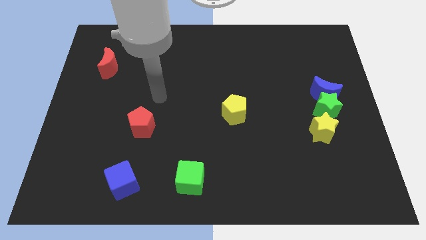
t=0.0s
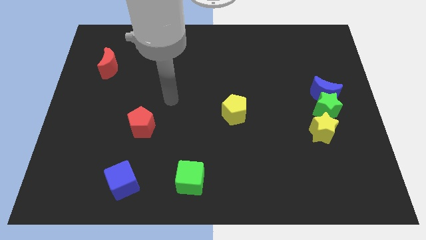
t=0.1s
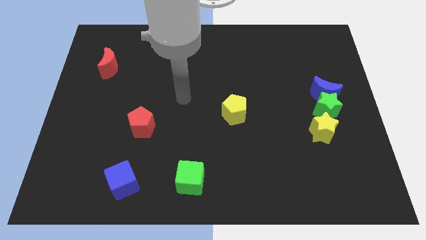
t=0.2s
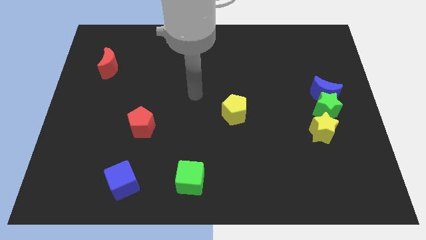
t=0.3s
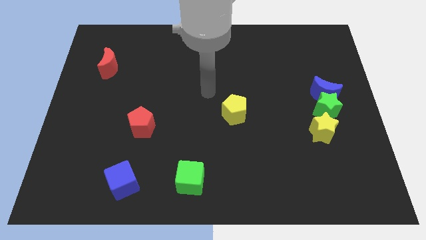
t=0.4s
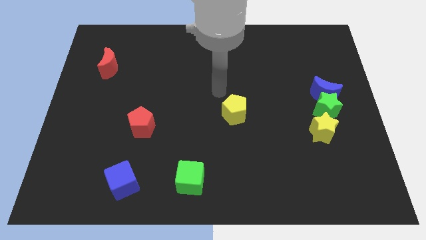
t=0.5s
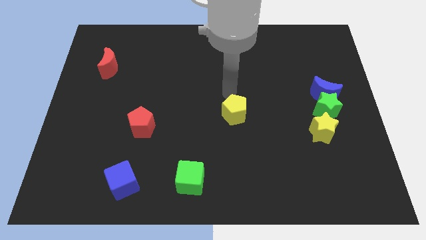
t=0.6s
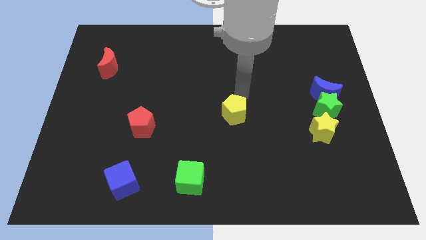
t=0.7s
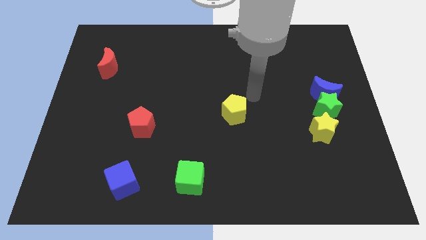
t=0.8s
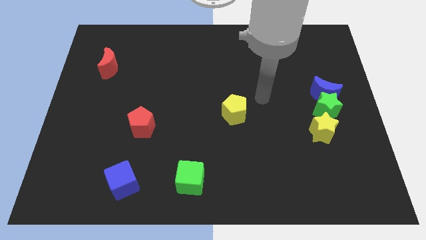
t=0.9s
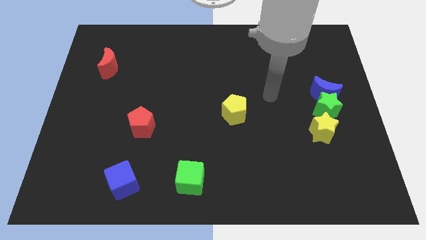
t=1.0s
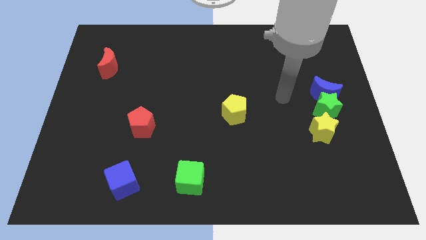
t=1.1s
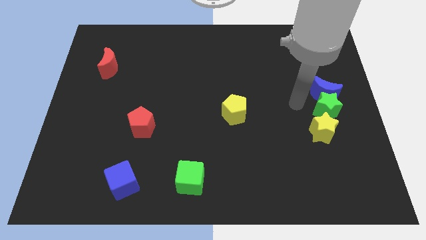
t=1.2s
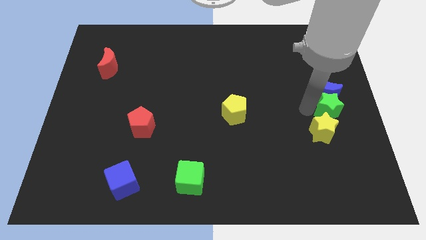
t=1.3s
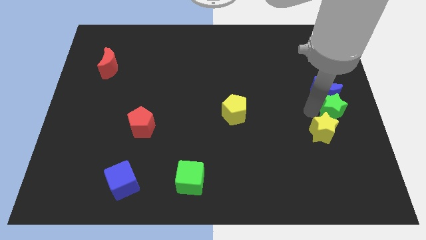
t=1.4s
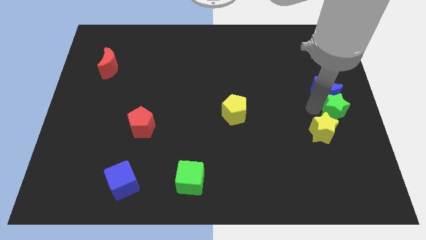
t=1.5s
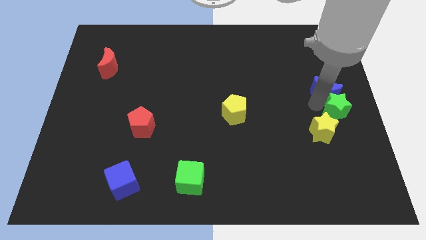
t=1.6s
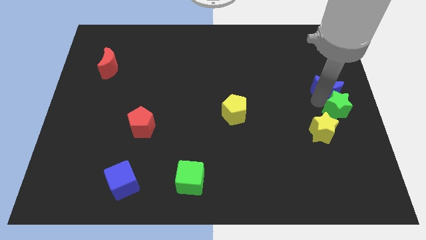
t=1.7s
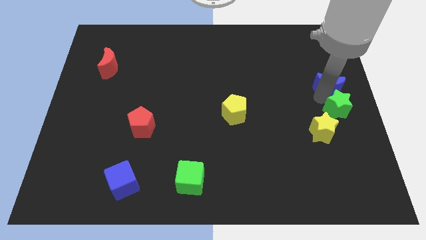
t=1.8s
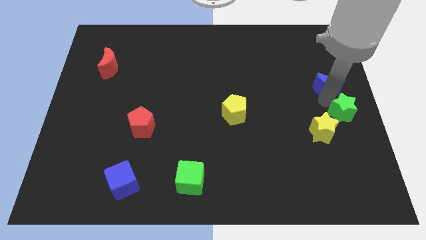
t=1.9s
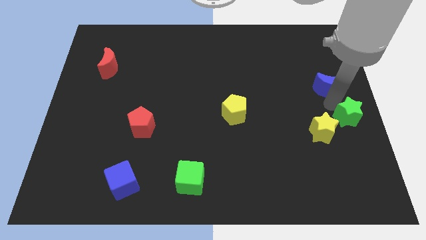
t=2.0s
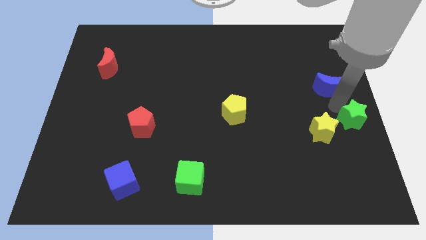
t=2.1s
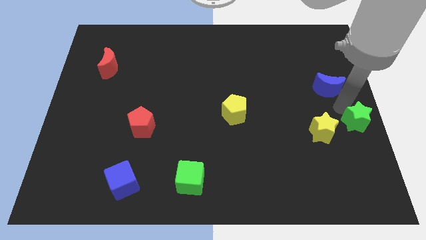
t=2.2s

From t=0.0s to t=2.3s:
separate the blue moon from the green star

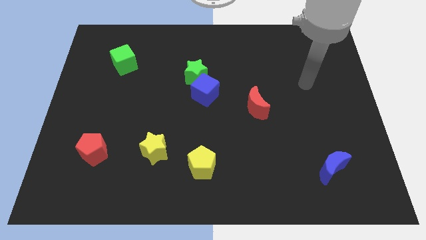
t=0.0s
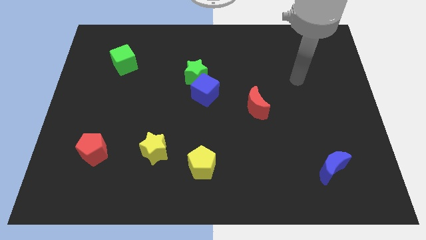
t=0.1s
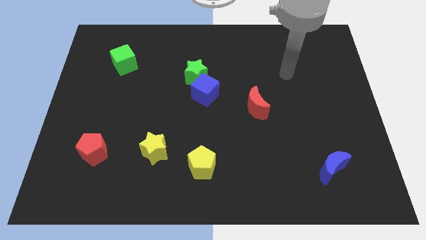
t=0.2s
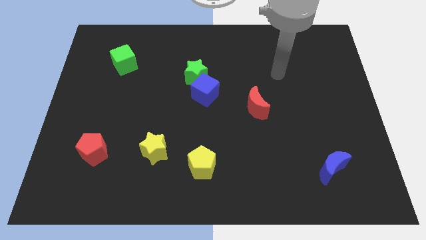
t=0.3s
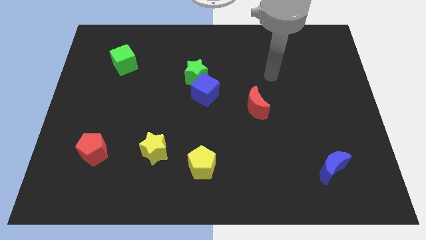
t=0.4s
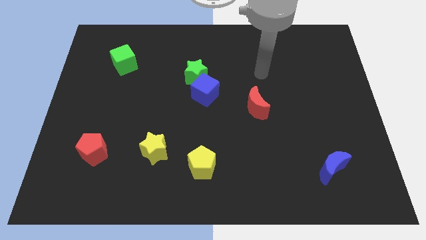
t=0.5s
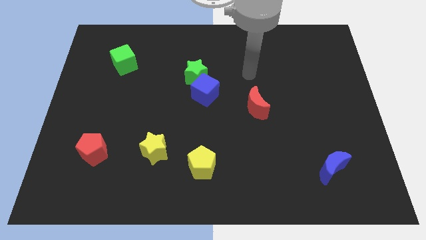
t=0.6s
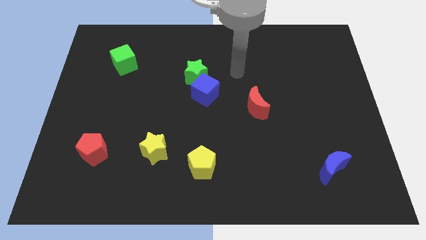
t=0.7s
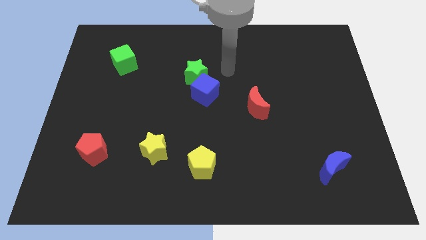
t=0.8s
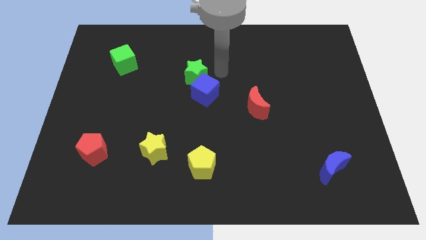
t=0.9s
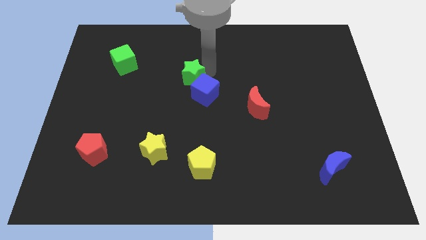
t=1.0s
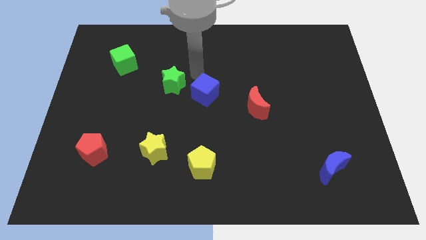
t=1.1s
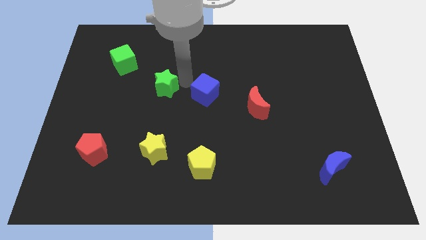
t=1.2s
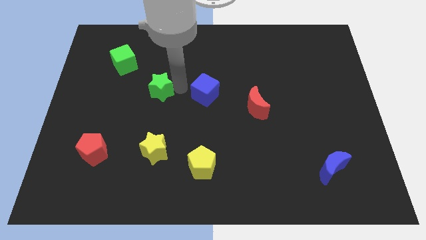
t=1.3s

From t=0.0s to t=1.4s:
pull the blue cube apart from the green star

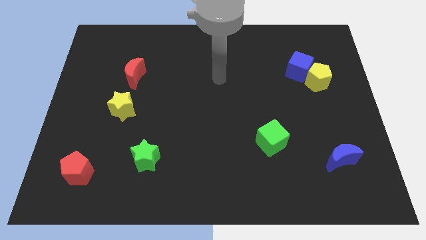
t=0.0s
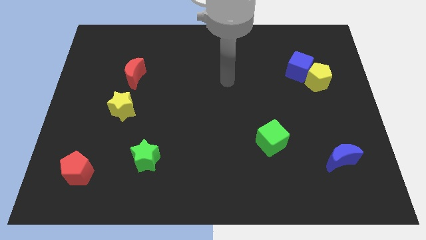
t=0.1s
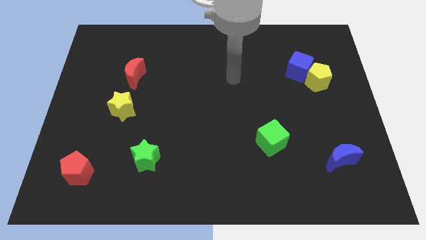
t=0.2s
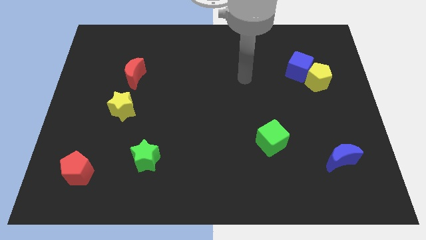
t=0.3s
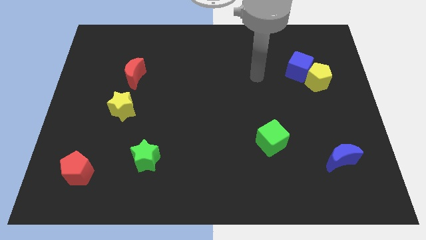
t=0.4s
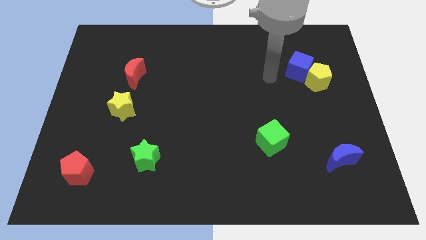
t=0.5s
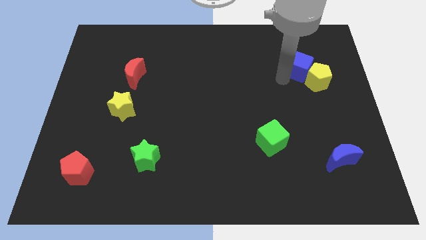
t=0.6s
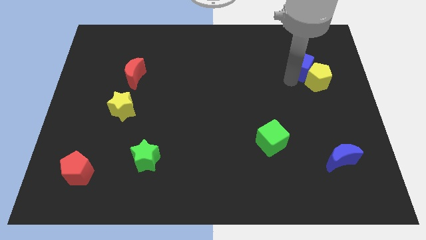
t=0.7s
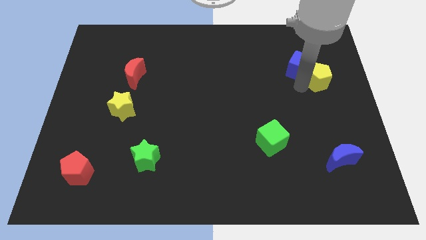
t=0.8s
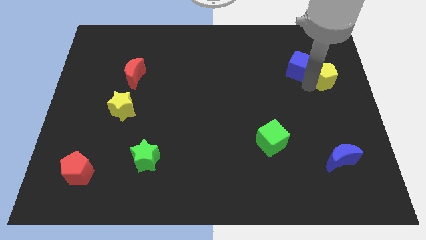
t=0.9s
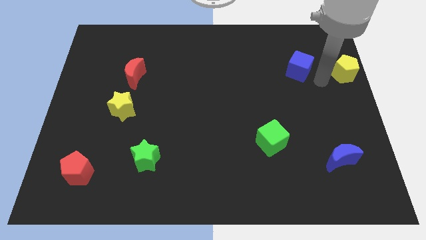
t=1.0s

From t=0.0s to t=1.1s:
move the blue cube away from the yellow pentagon

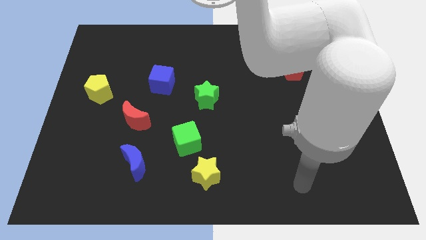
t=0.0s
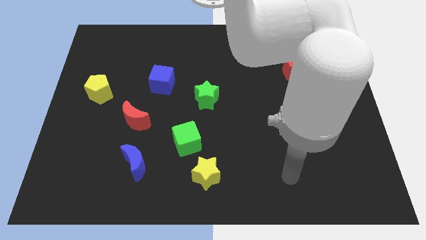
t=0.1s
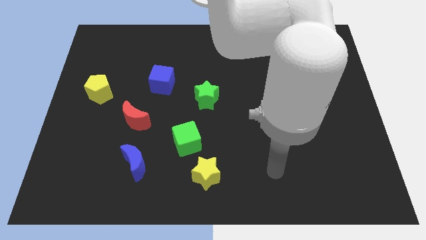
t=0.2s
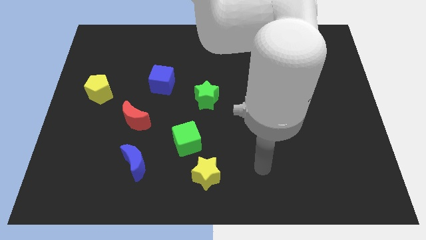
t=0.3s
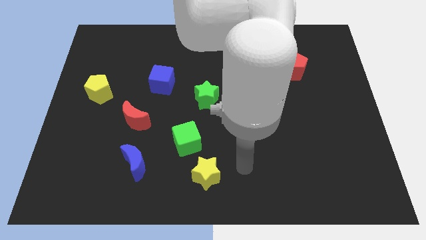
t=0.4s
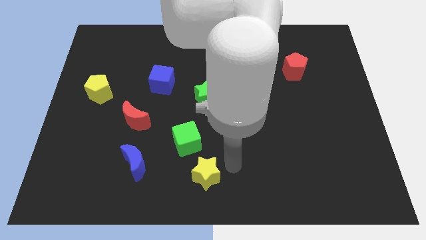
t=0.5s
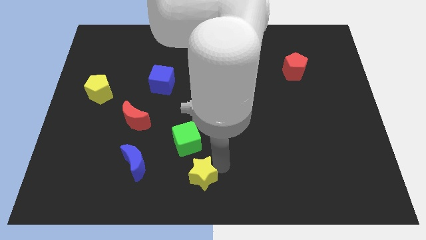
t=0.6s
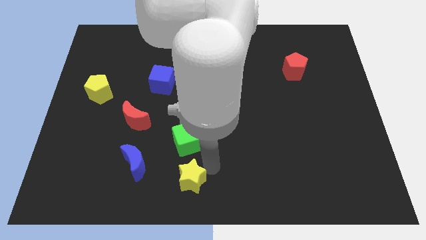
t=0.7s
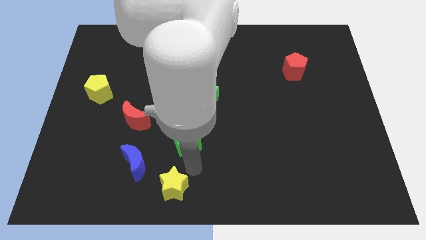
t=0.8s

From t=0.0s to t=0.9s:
pull the green cube apart from the yellow star

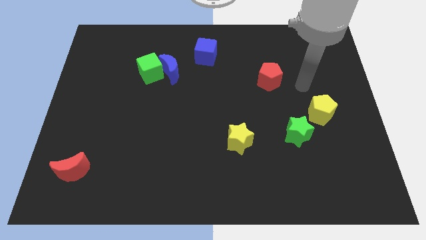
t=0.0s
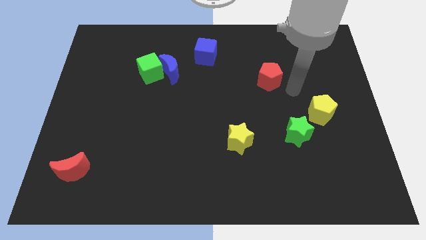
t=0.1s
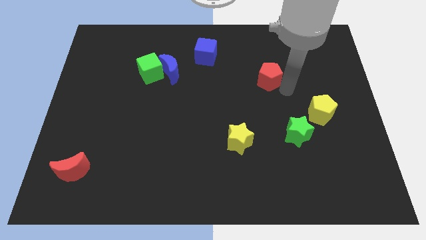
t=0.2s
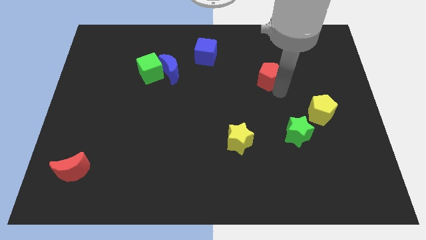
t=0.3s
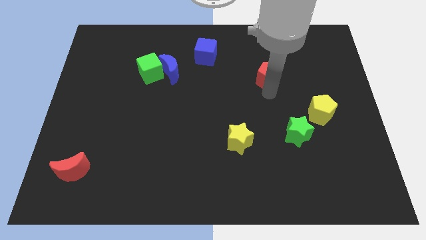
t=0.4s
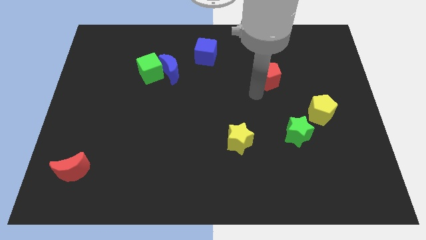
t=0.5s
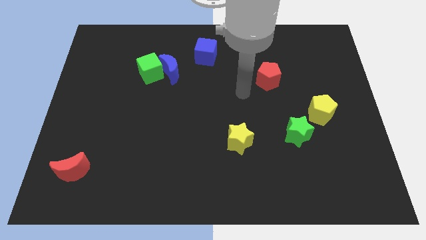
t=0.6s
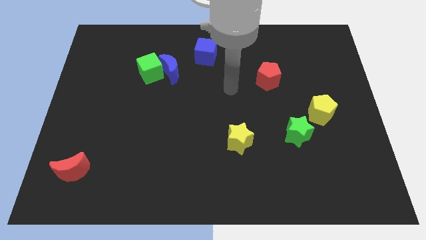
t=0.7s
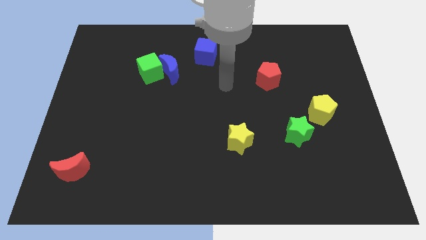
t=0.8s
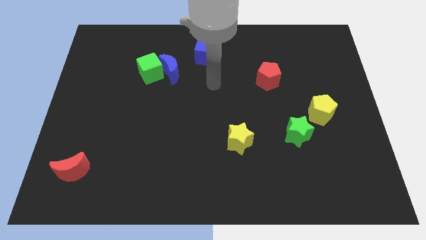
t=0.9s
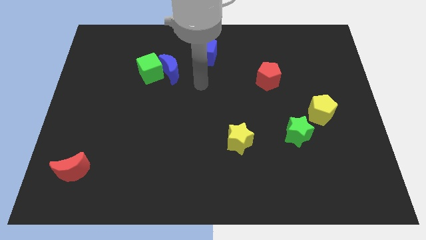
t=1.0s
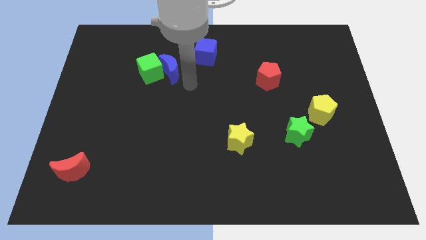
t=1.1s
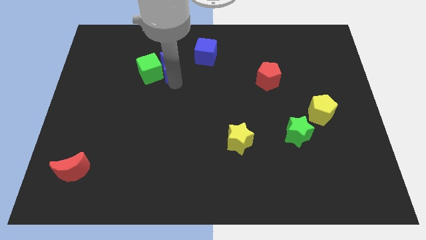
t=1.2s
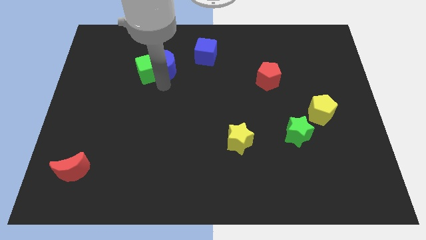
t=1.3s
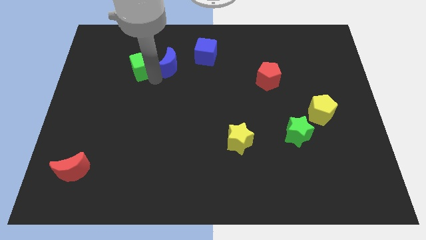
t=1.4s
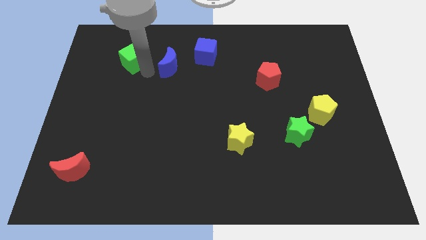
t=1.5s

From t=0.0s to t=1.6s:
move the blue moon away from the green cube

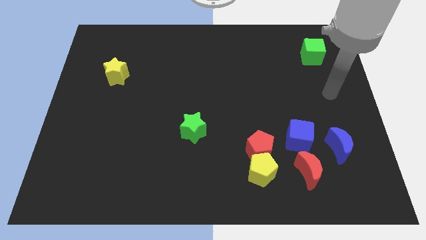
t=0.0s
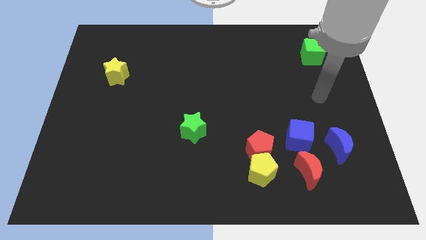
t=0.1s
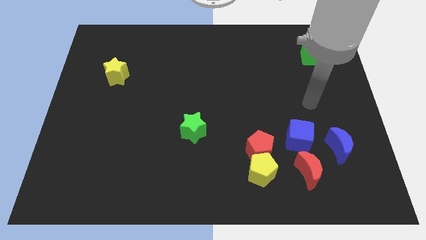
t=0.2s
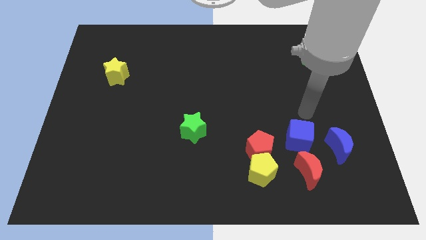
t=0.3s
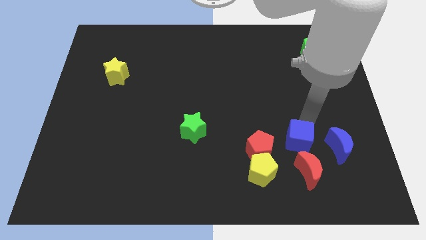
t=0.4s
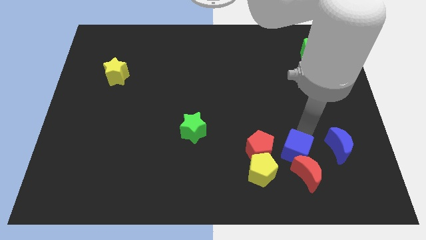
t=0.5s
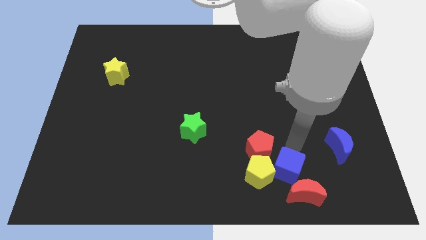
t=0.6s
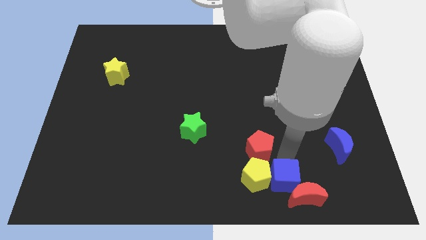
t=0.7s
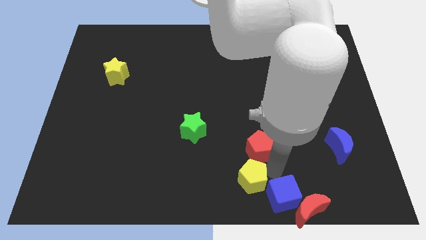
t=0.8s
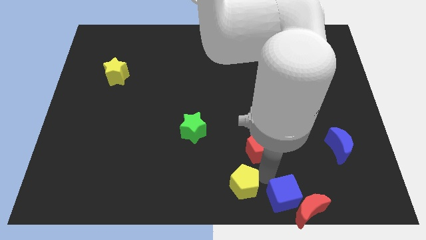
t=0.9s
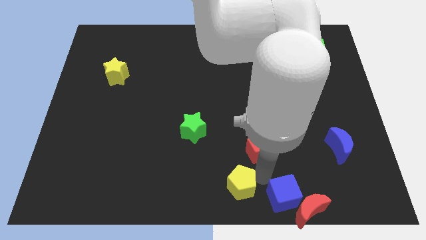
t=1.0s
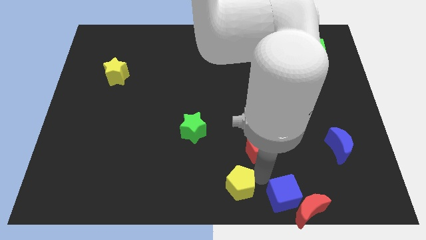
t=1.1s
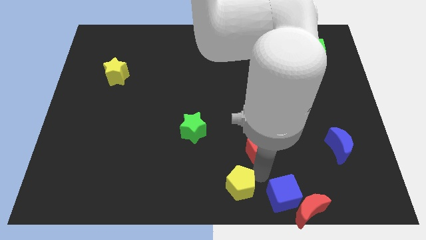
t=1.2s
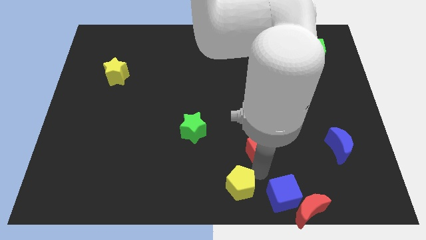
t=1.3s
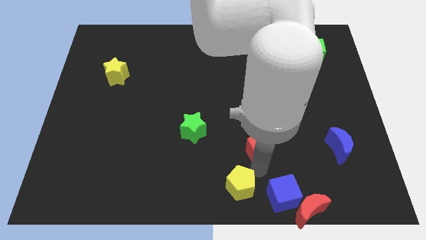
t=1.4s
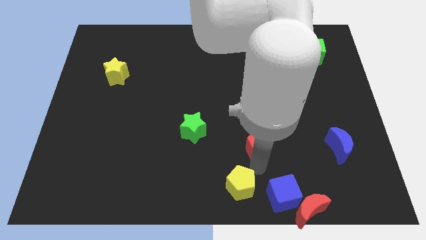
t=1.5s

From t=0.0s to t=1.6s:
separate the red pentagon from the yellow pentagon and blue cube

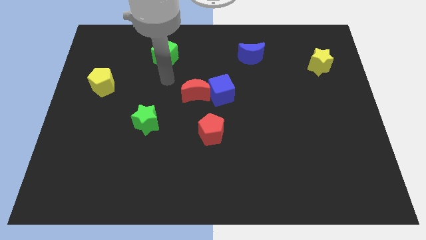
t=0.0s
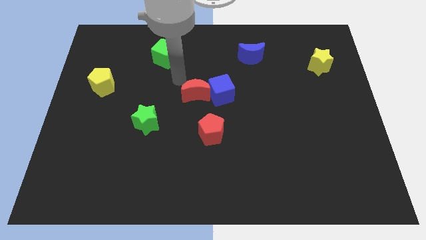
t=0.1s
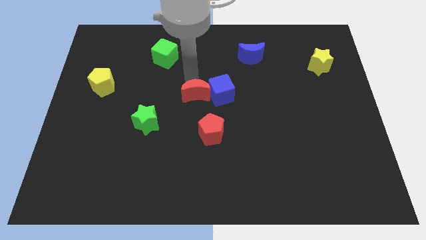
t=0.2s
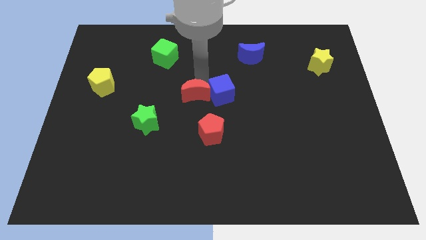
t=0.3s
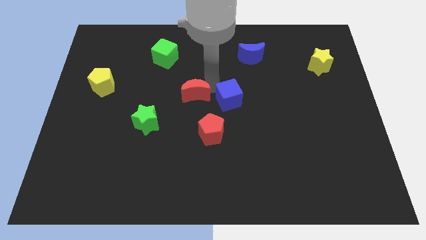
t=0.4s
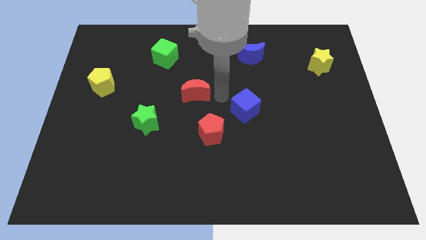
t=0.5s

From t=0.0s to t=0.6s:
separate the red moon from the blue cube
